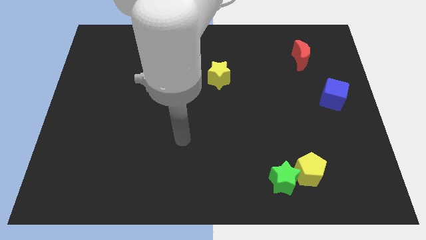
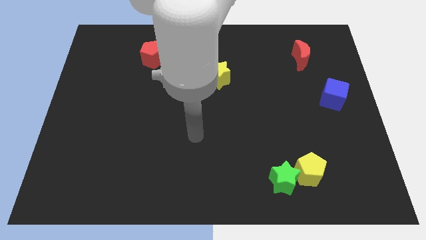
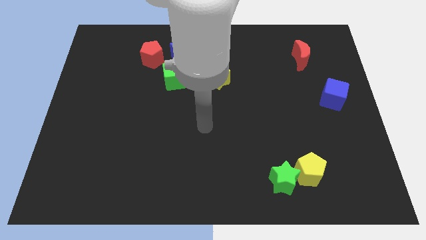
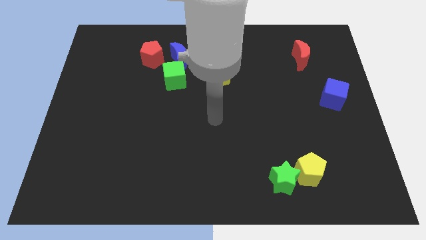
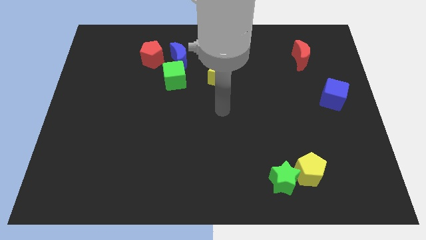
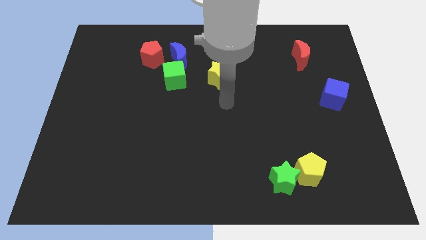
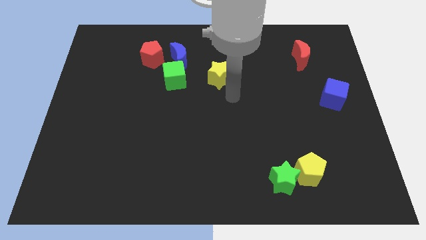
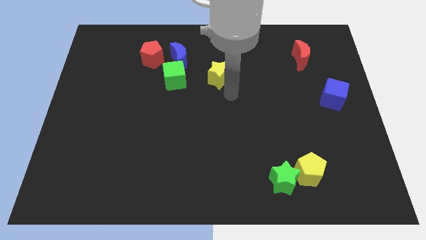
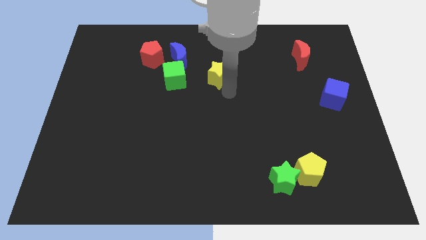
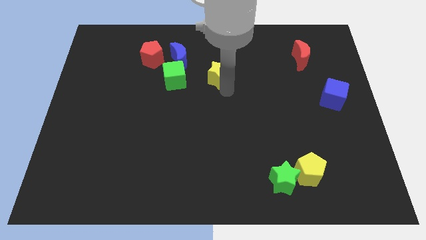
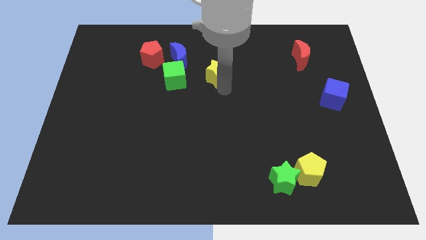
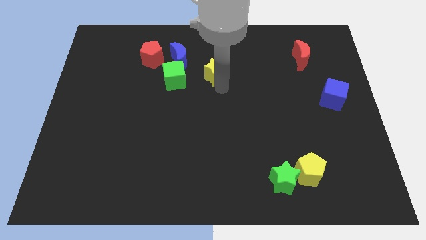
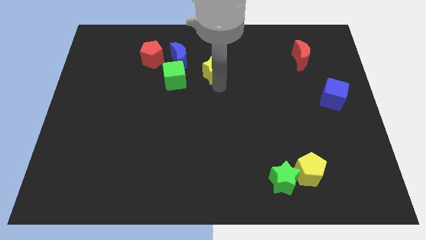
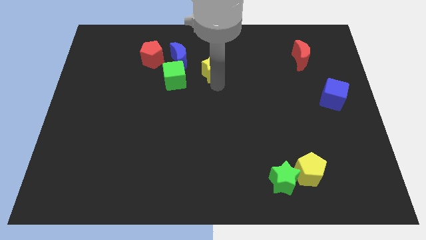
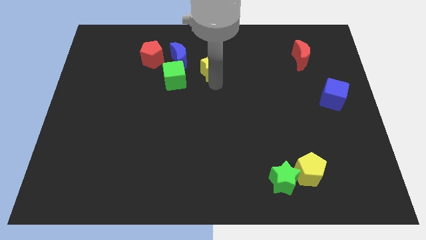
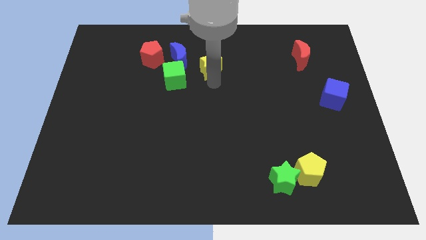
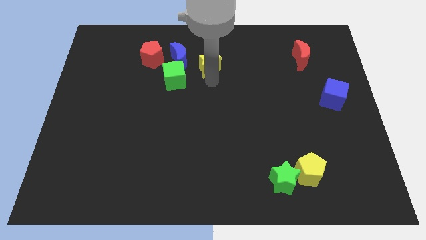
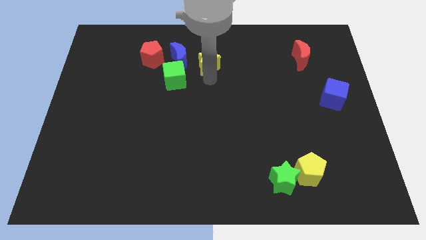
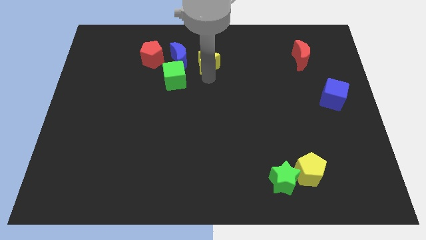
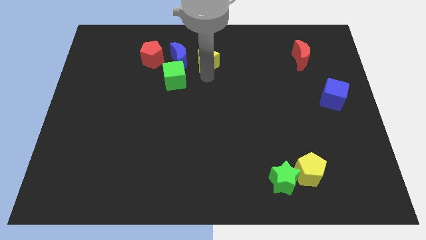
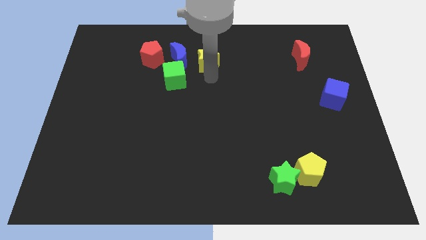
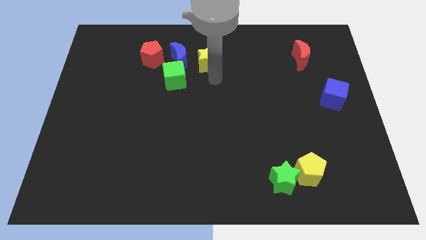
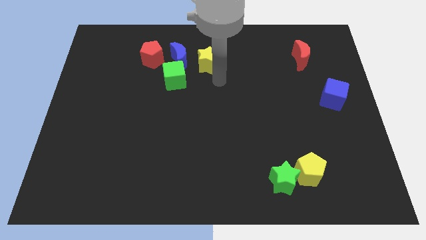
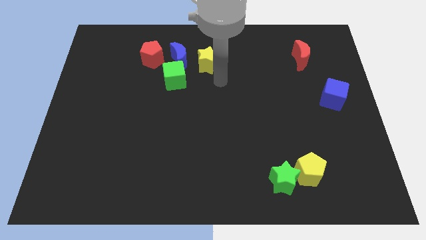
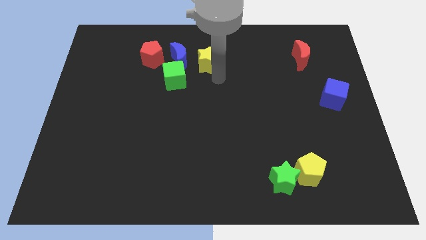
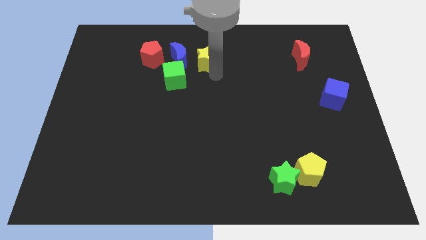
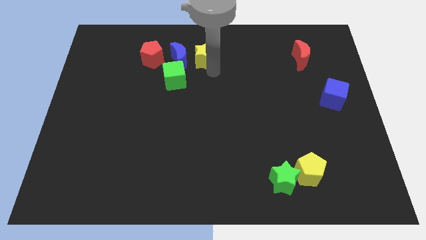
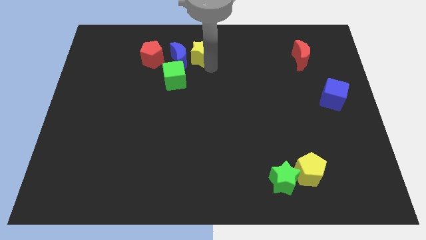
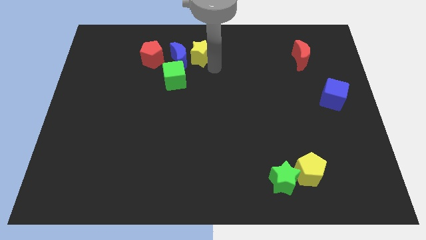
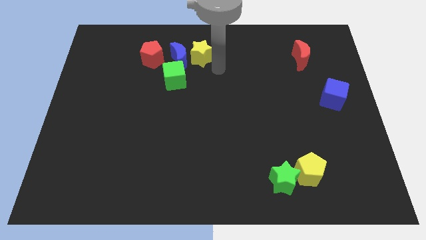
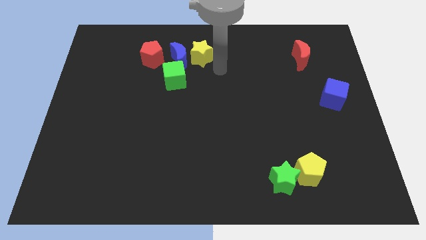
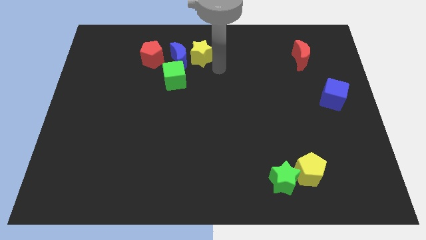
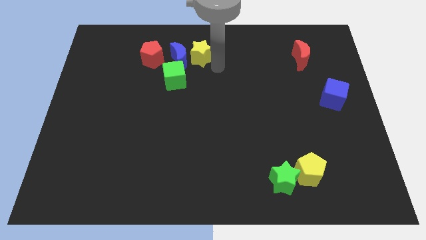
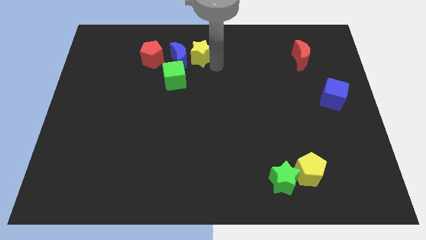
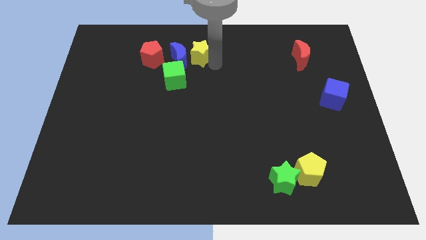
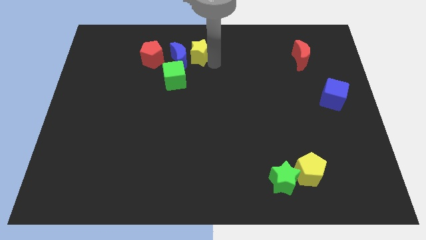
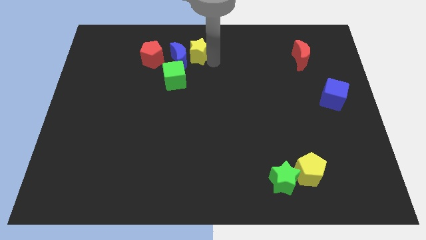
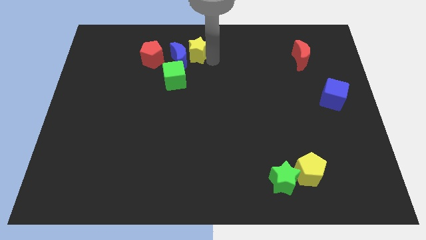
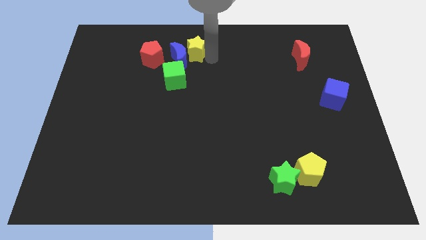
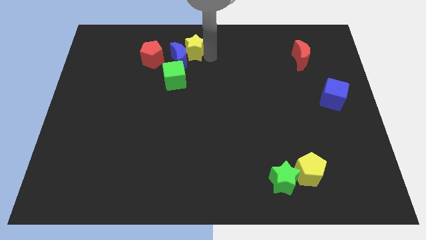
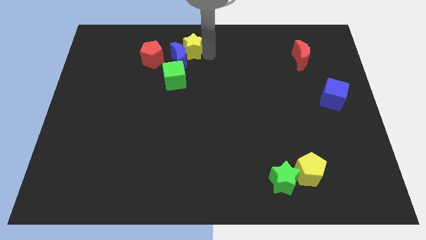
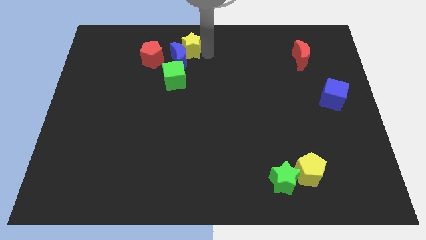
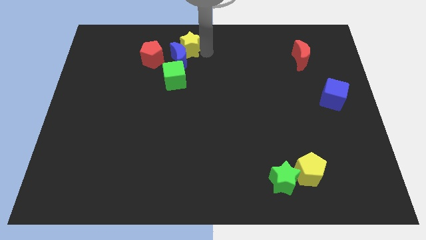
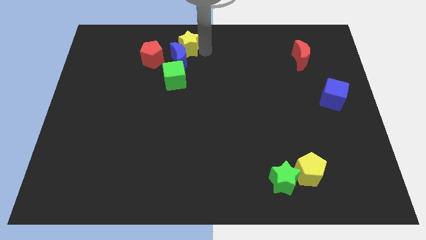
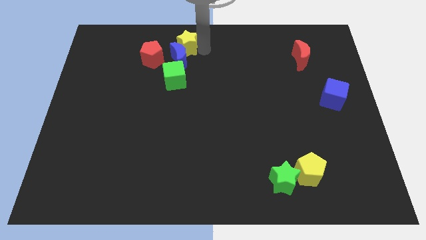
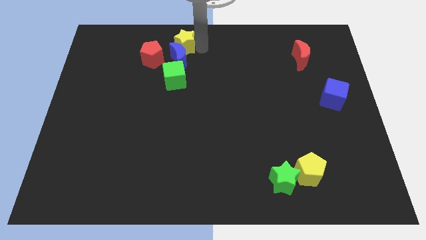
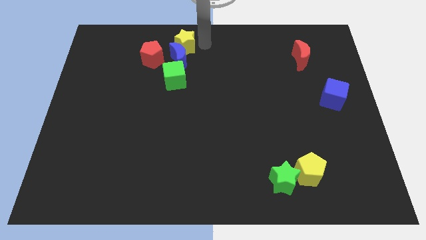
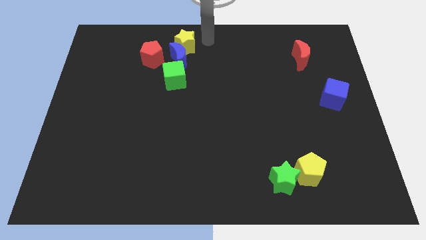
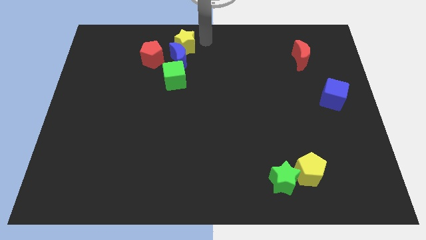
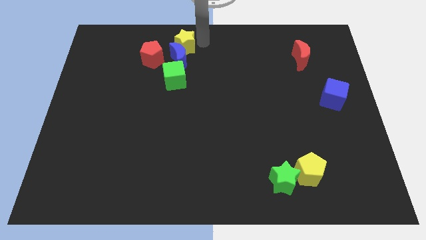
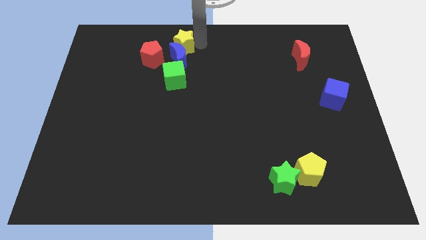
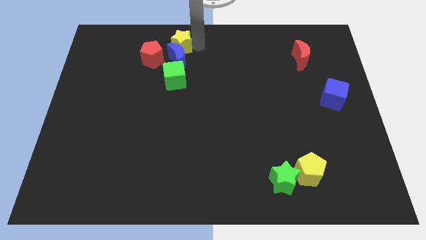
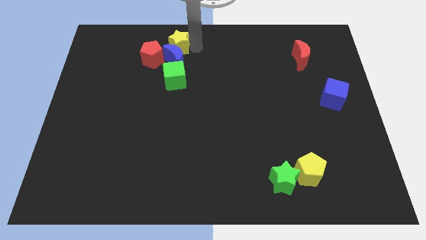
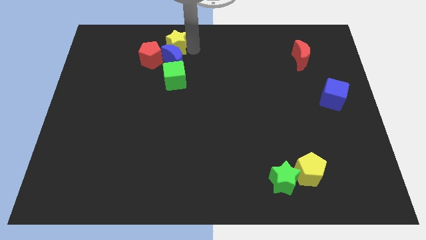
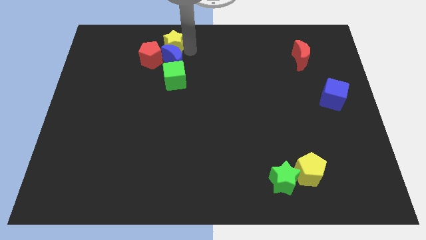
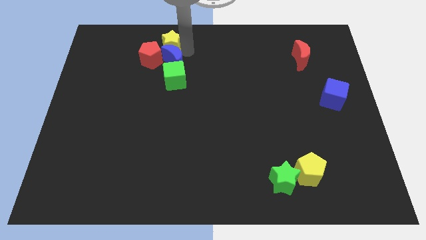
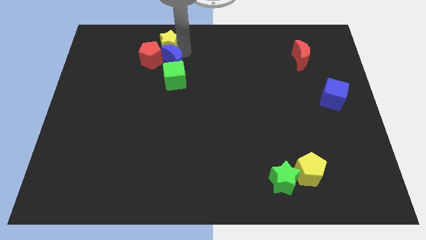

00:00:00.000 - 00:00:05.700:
put the yellow star close to the red pentagon

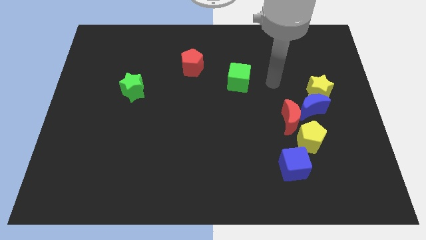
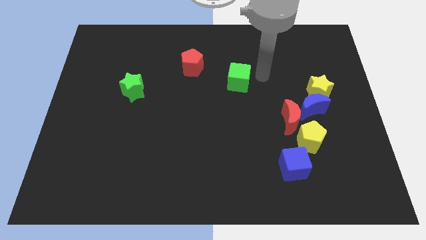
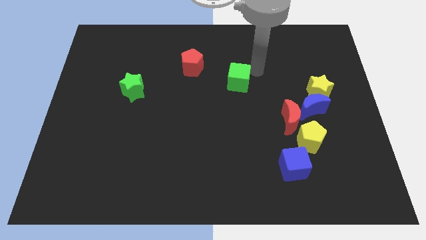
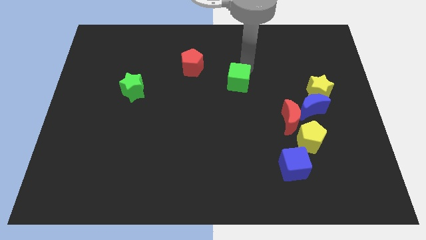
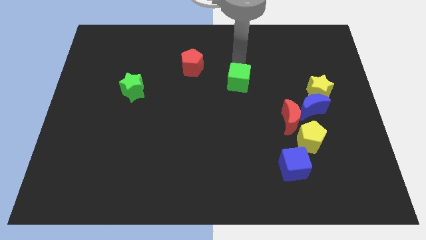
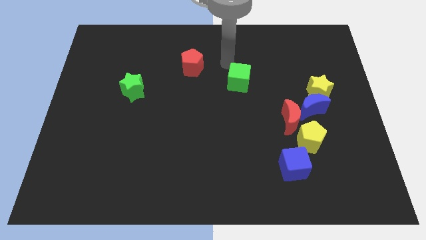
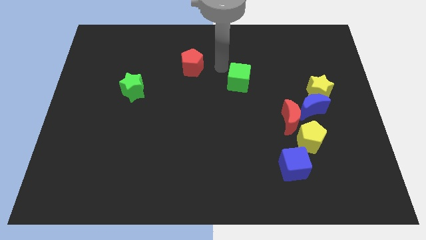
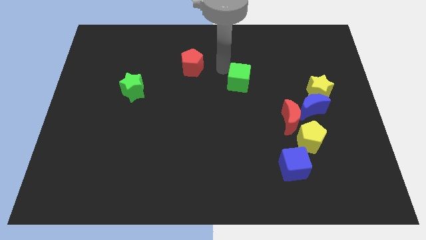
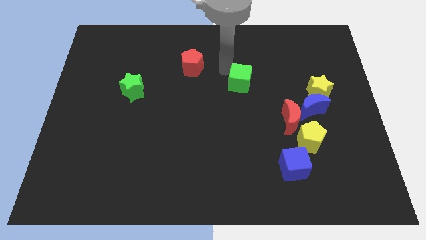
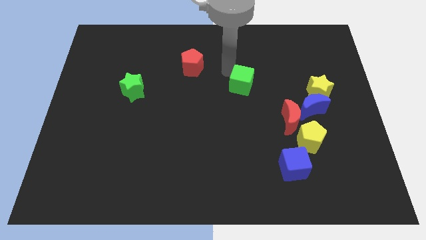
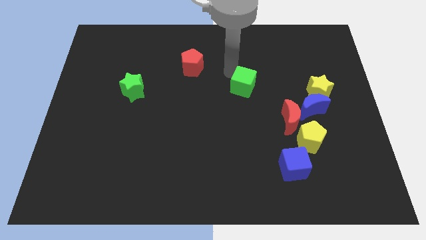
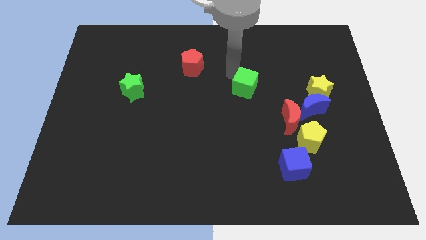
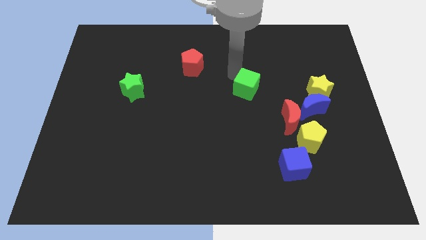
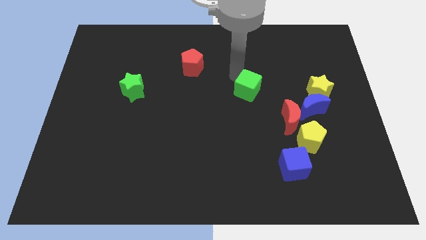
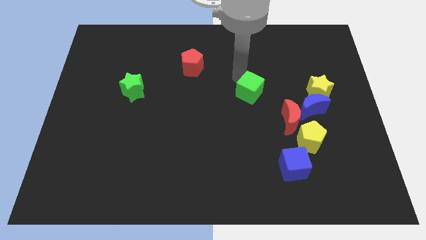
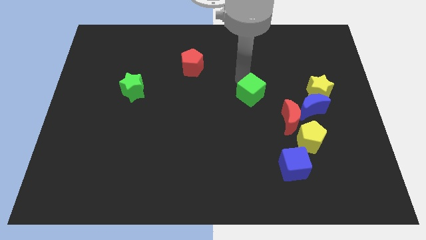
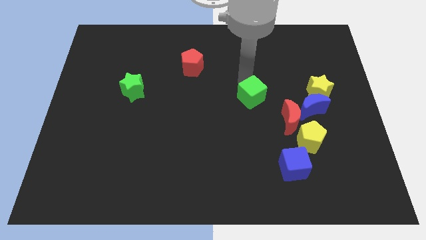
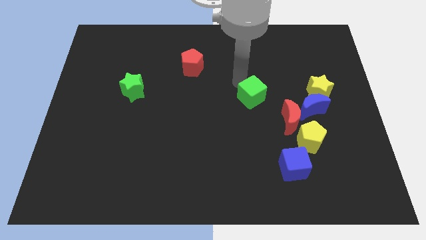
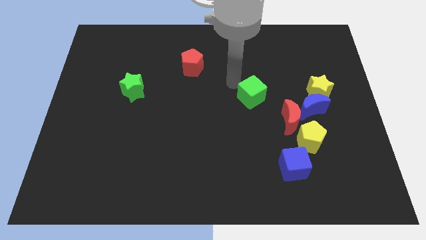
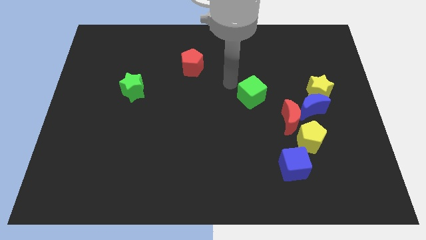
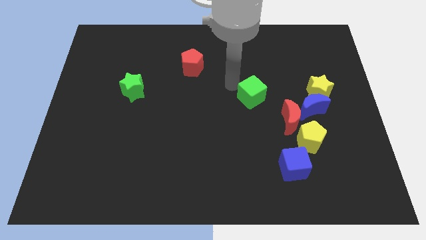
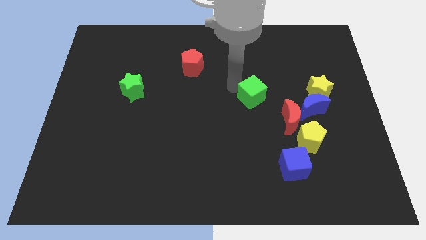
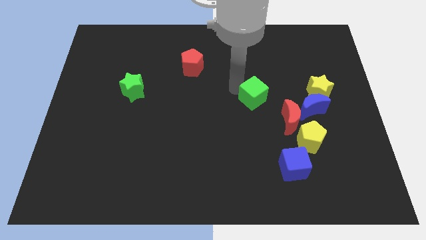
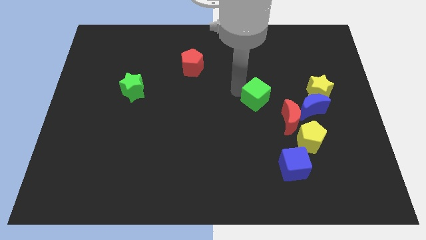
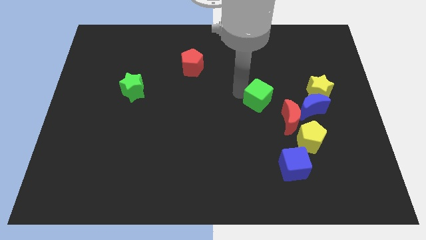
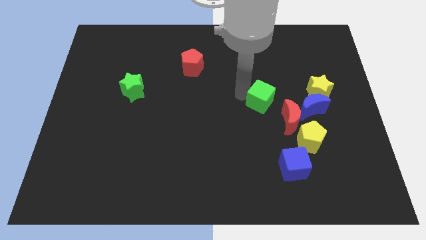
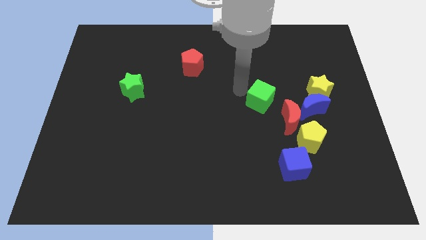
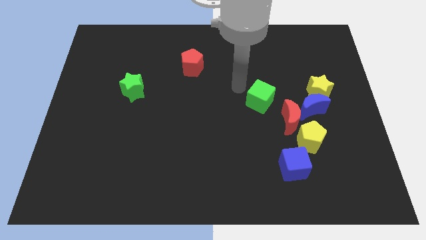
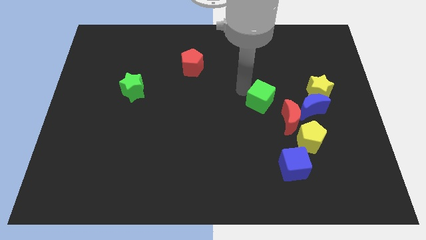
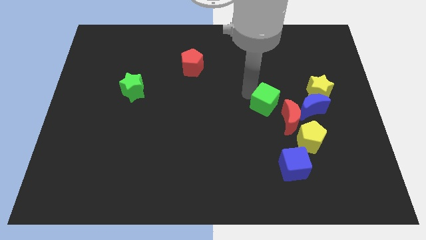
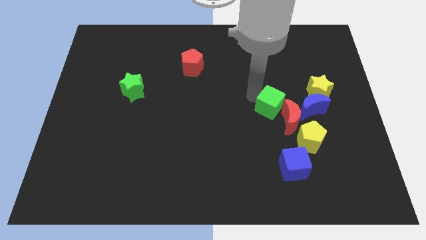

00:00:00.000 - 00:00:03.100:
push the green cube to the red moon
